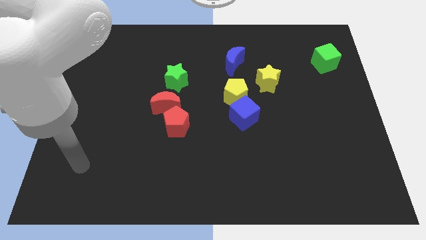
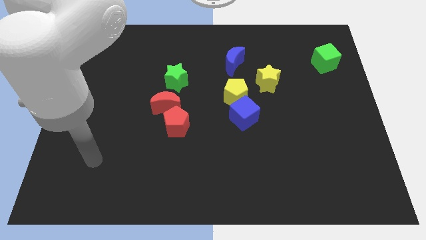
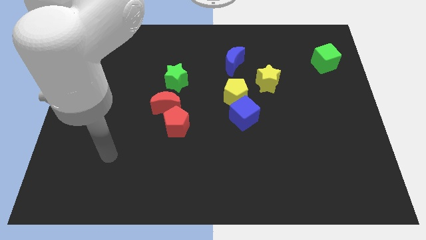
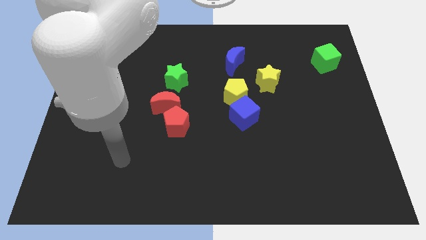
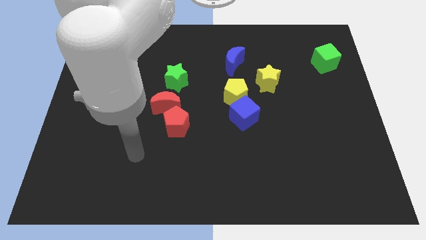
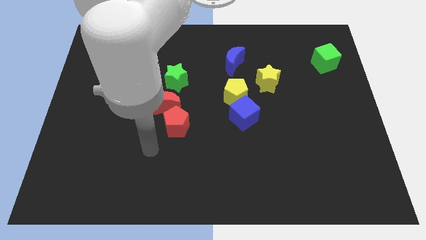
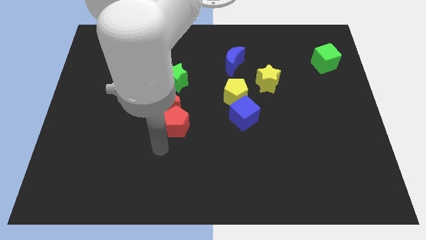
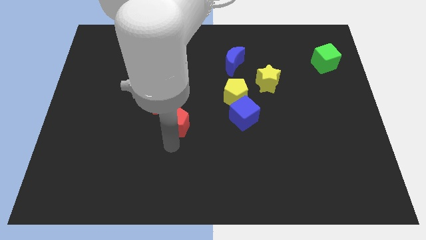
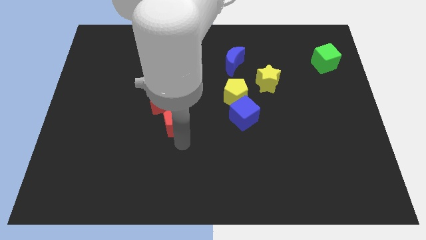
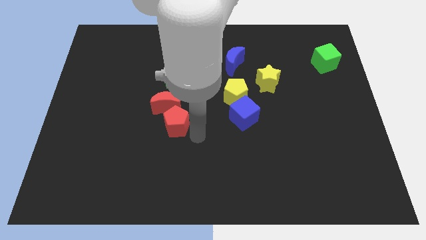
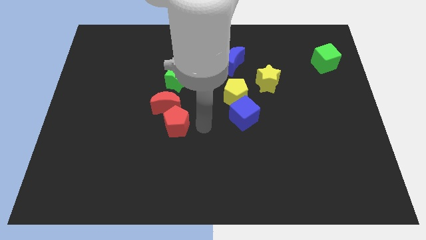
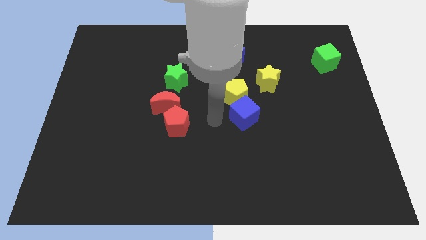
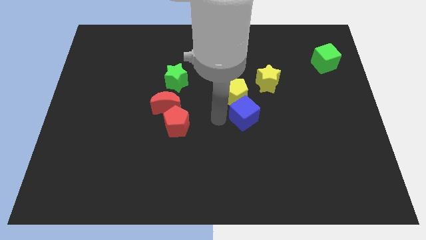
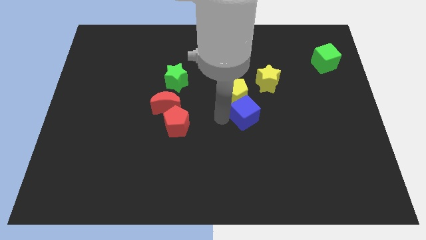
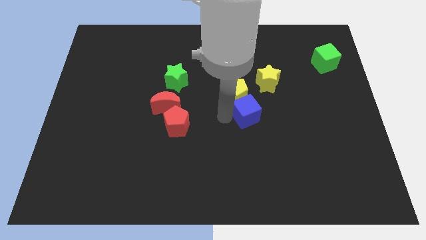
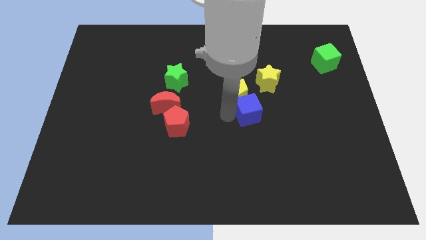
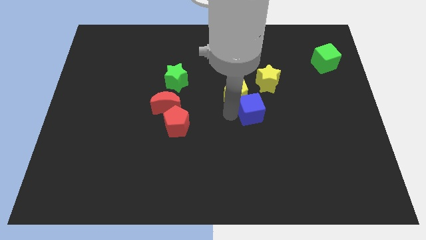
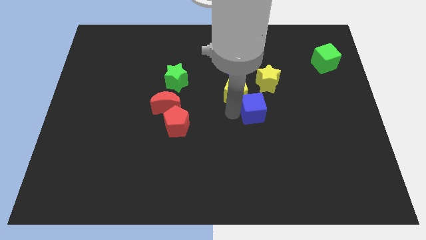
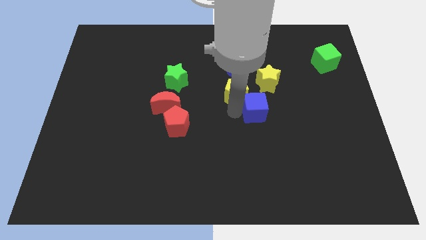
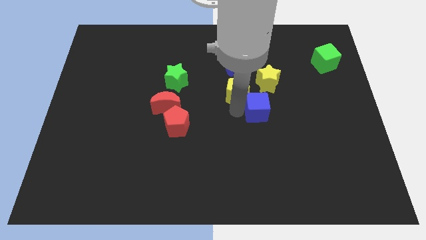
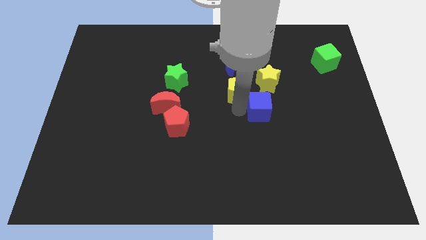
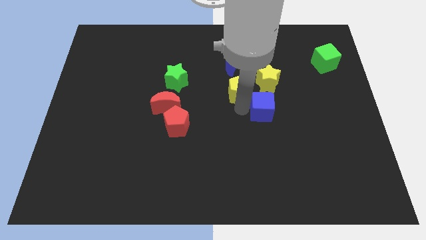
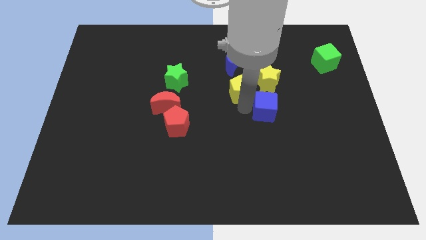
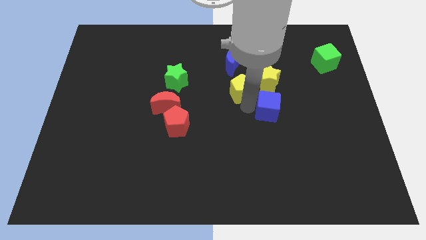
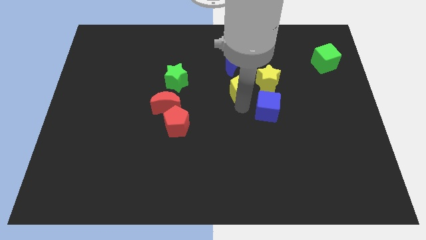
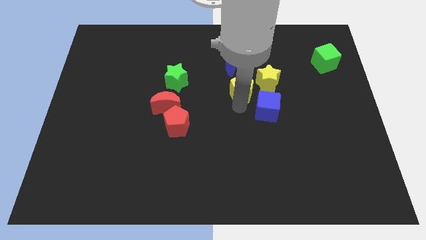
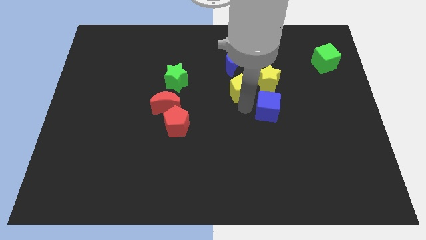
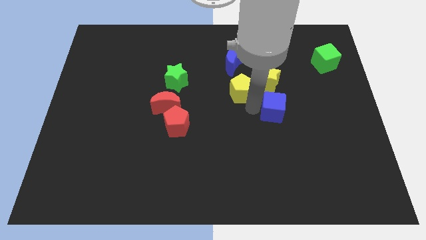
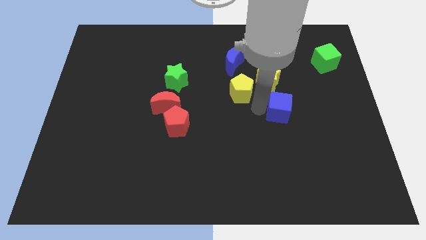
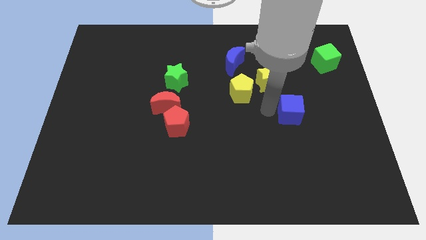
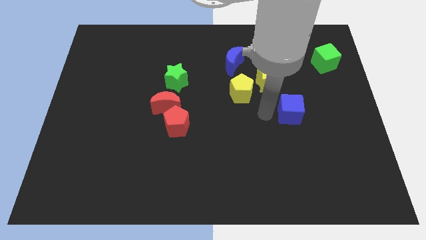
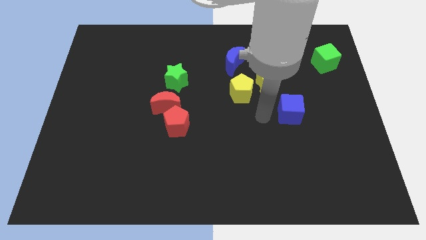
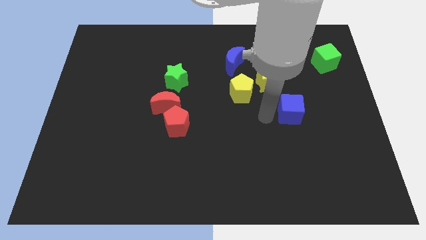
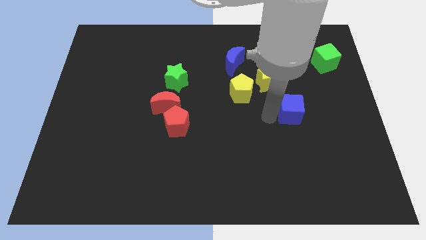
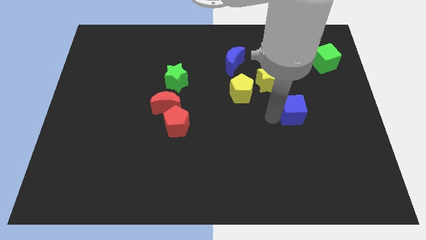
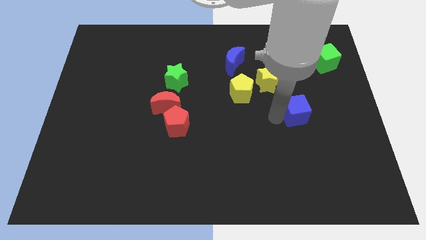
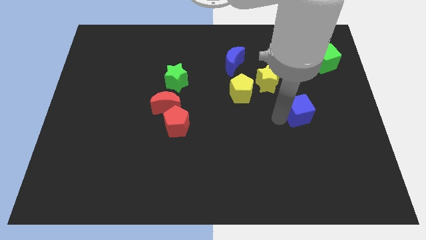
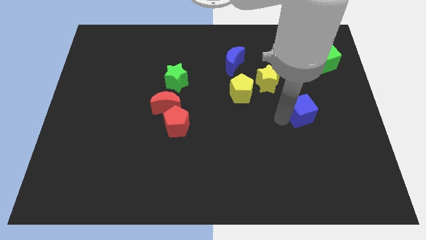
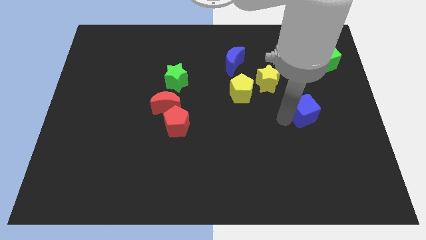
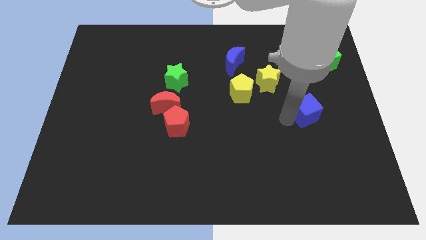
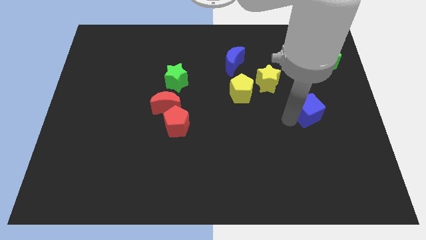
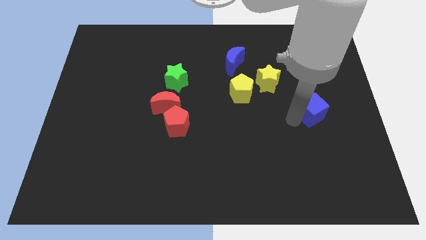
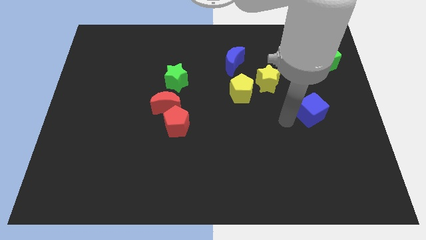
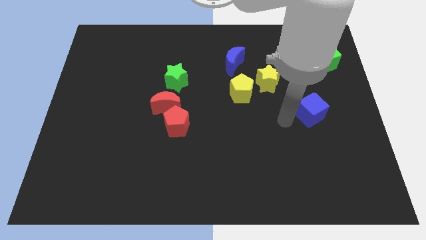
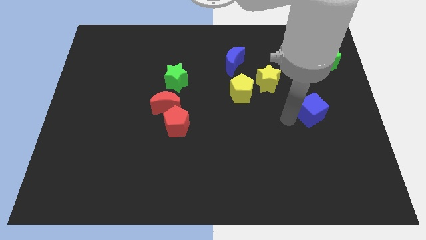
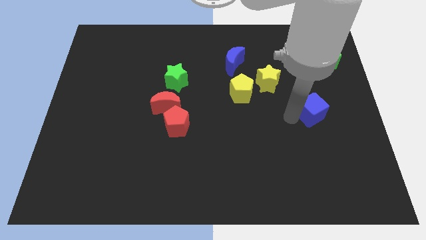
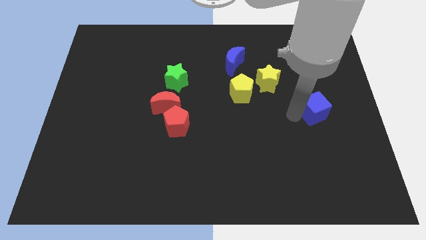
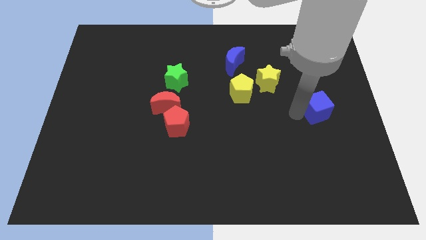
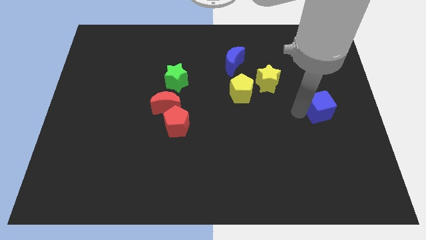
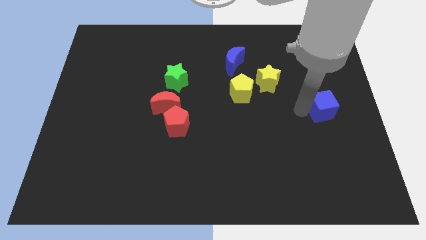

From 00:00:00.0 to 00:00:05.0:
push the blue cube to the right side

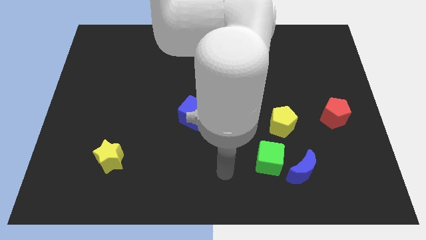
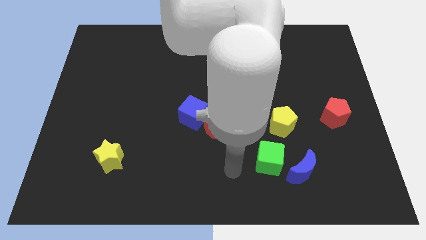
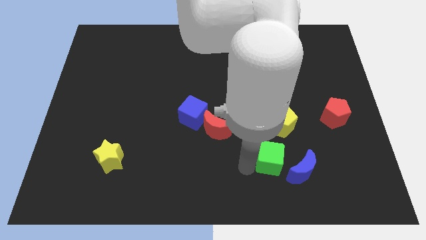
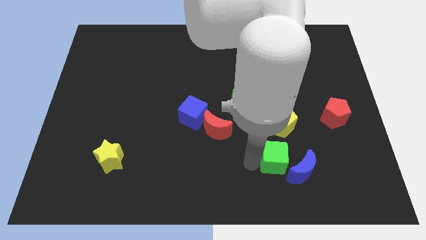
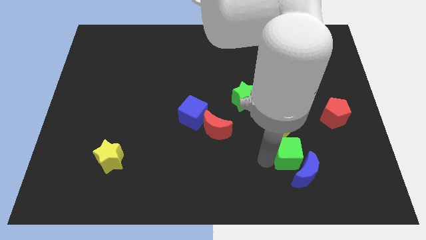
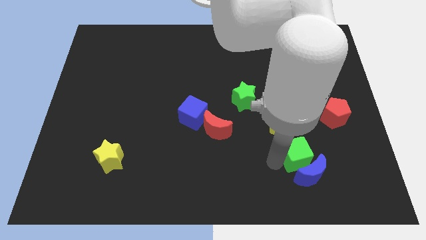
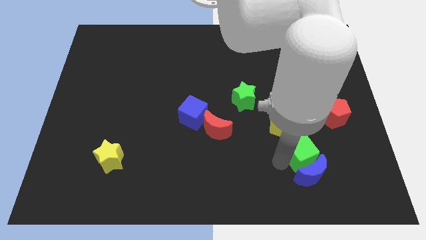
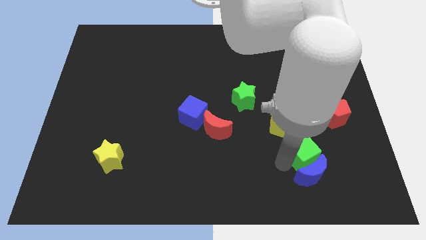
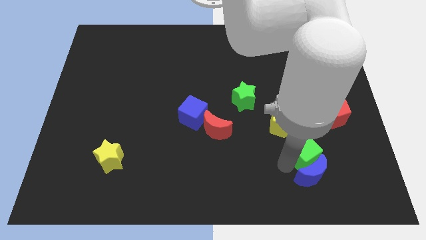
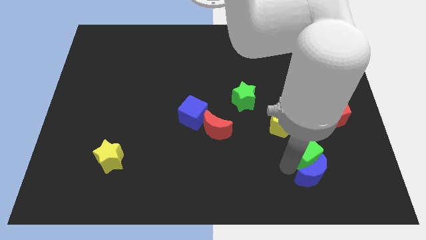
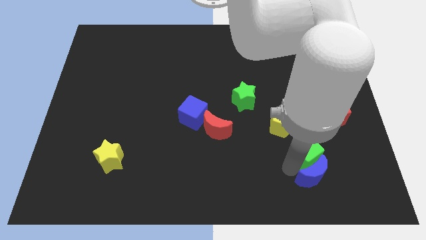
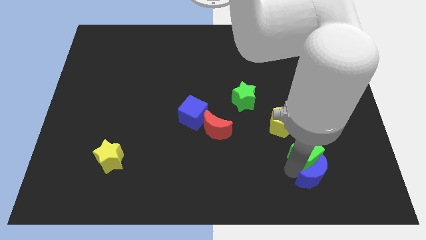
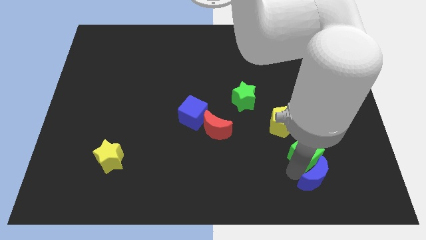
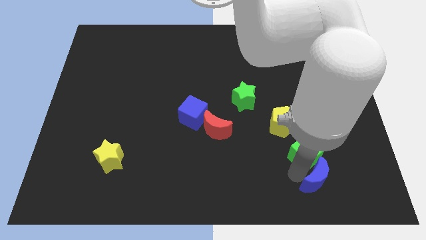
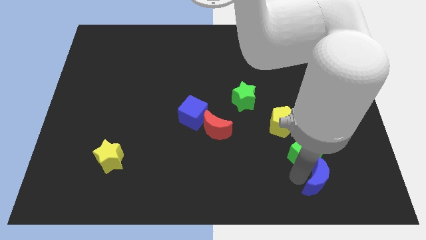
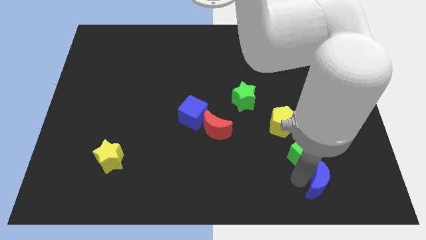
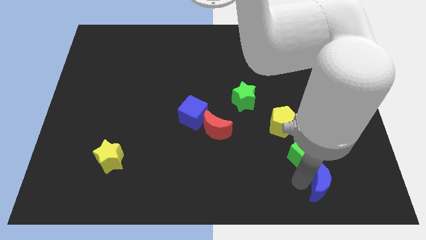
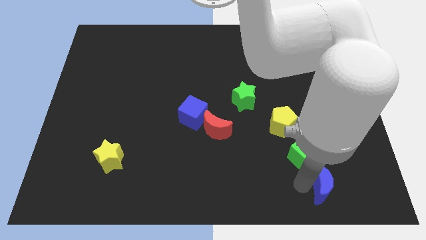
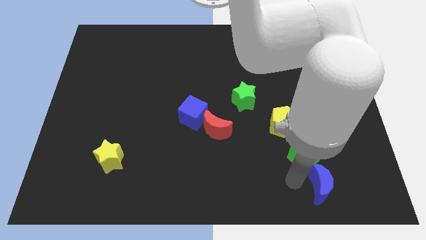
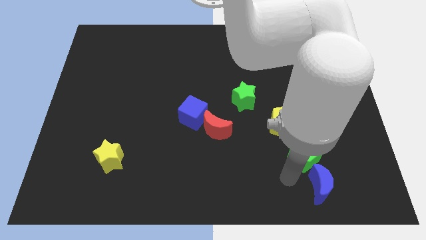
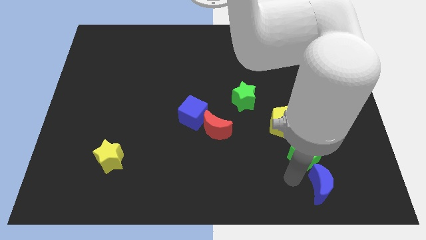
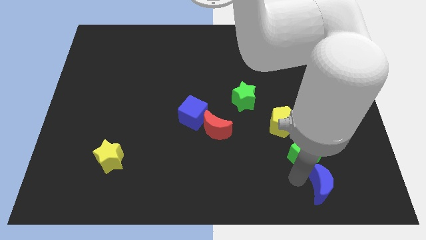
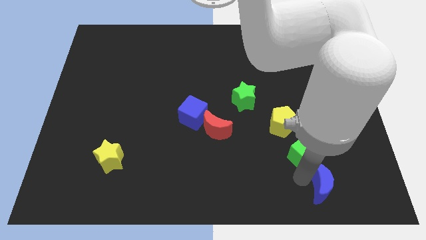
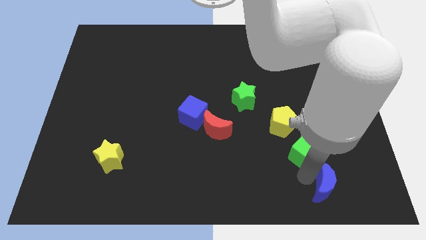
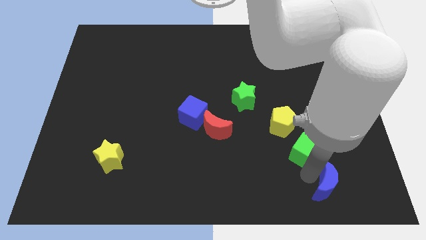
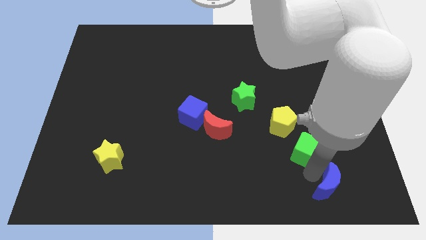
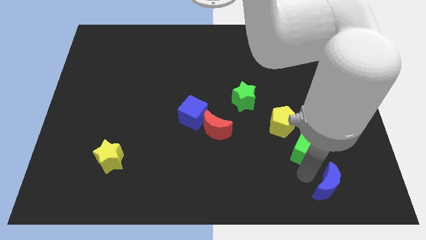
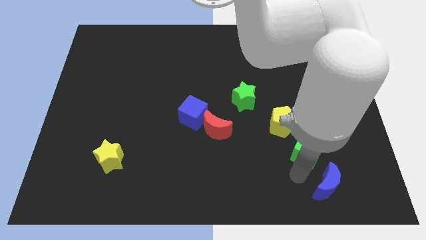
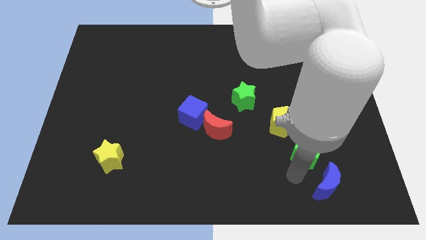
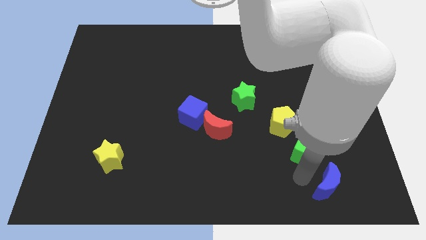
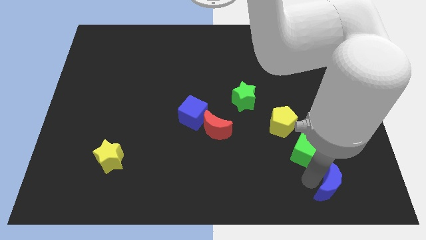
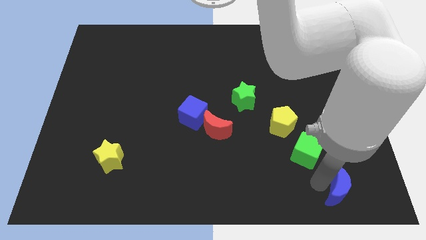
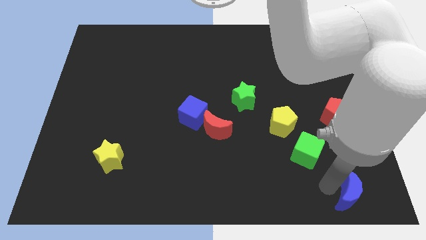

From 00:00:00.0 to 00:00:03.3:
slide the blue moon to the bottom right corner
